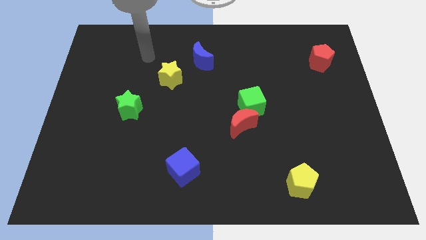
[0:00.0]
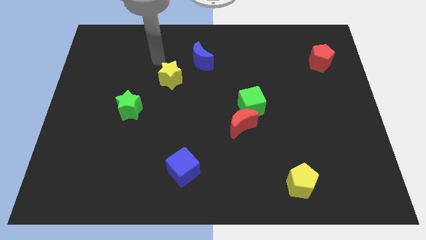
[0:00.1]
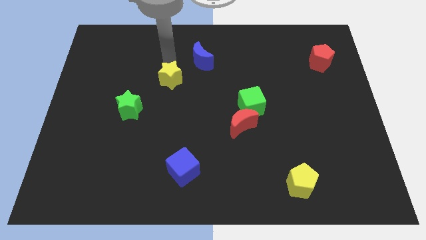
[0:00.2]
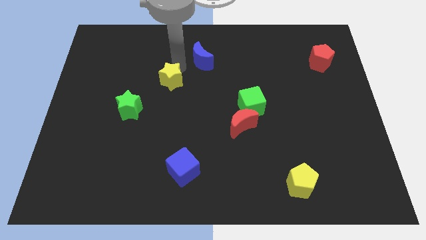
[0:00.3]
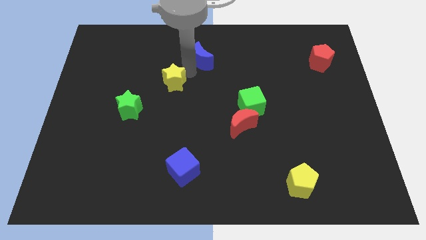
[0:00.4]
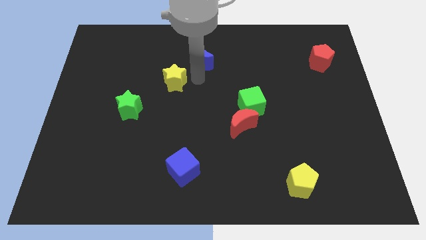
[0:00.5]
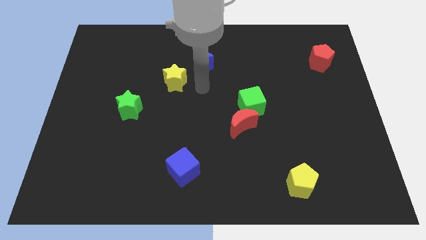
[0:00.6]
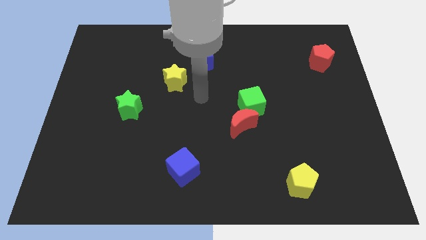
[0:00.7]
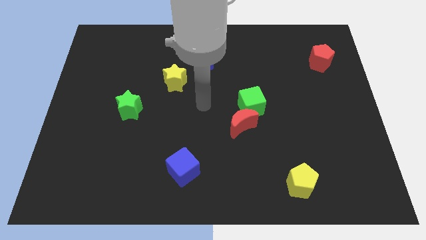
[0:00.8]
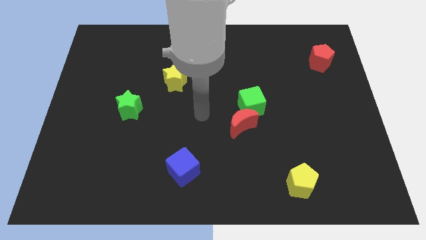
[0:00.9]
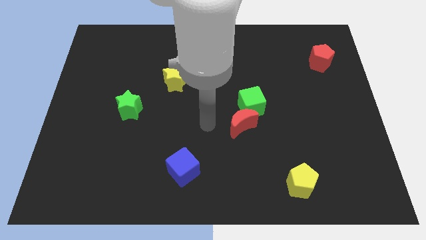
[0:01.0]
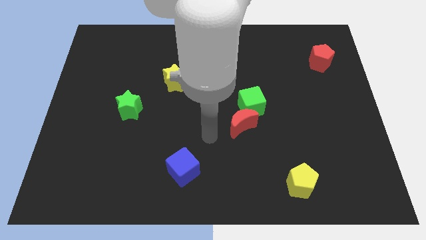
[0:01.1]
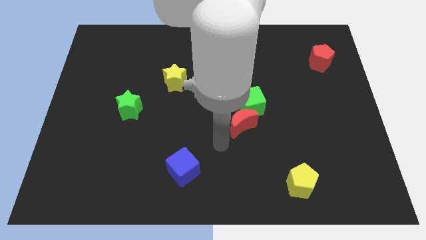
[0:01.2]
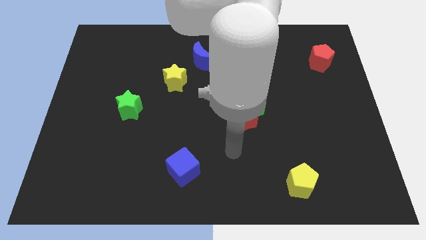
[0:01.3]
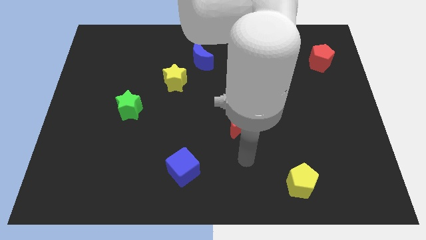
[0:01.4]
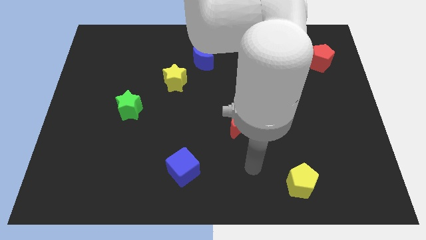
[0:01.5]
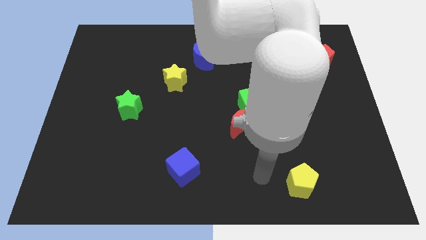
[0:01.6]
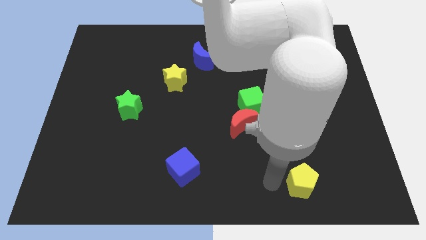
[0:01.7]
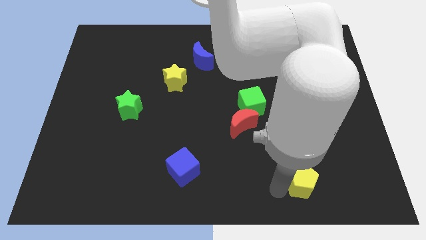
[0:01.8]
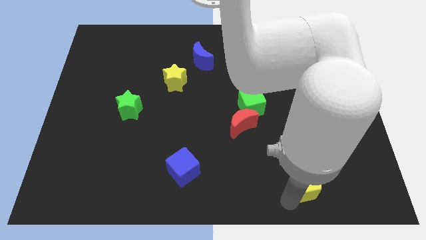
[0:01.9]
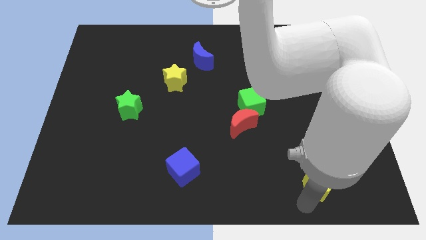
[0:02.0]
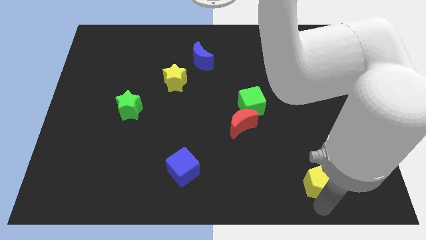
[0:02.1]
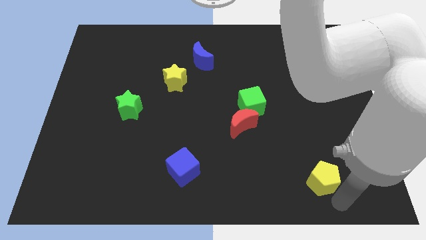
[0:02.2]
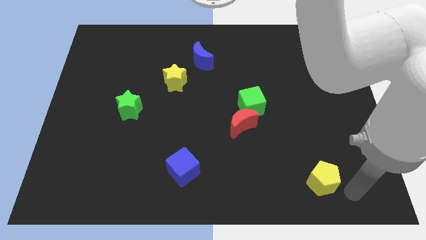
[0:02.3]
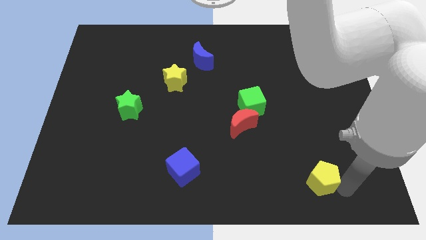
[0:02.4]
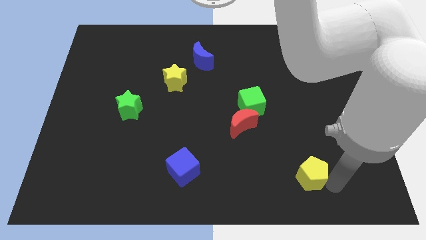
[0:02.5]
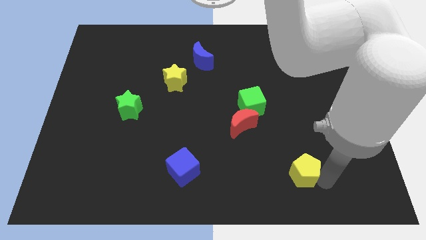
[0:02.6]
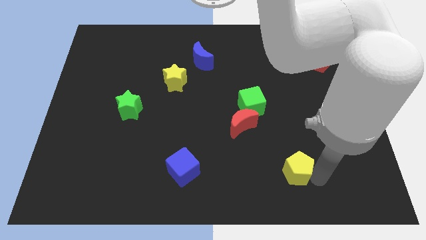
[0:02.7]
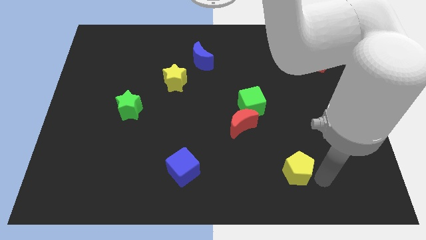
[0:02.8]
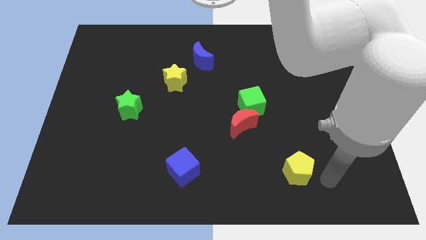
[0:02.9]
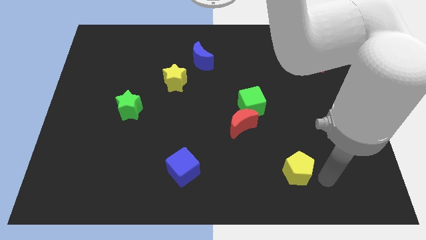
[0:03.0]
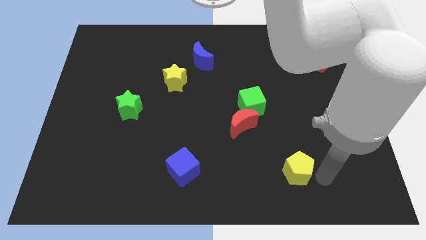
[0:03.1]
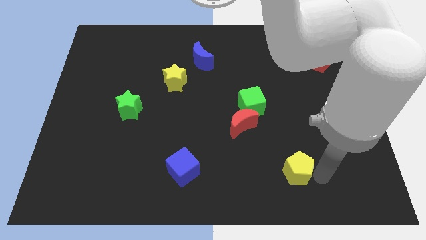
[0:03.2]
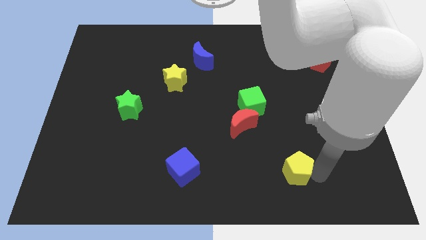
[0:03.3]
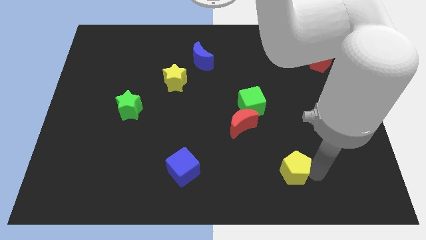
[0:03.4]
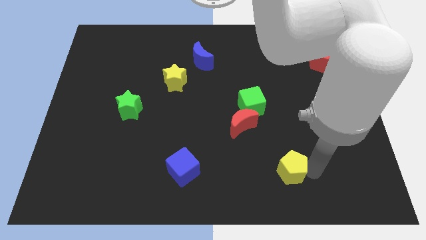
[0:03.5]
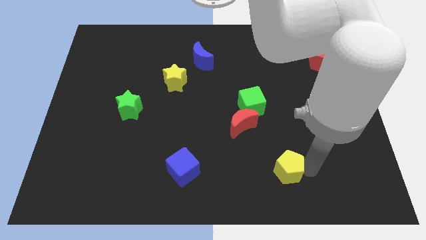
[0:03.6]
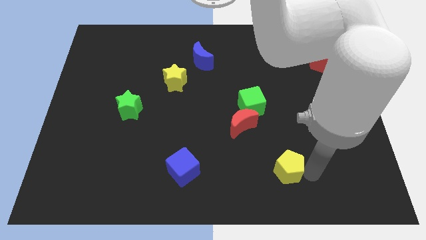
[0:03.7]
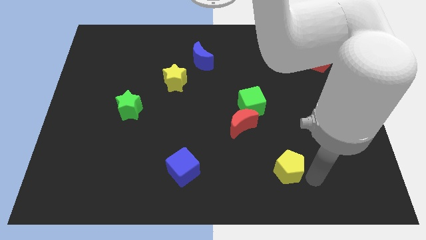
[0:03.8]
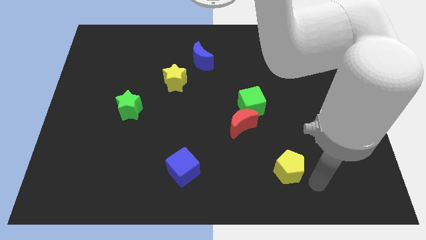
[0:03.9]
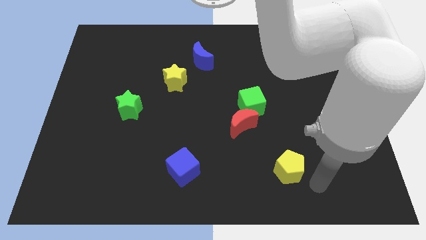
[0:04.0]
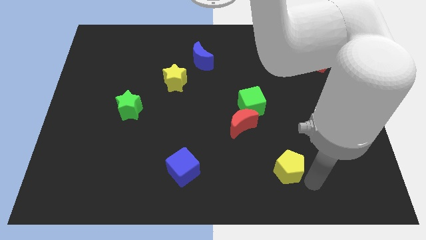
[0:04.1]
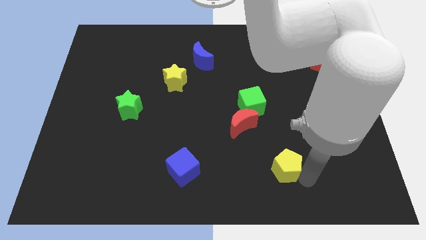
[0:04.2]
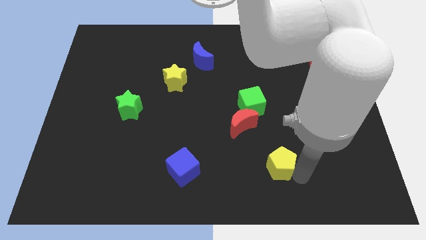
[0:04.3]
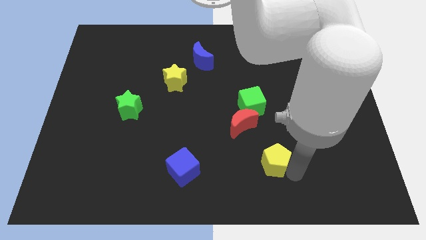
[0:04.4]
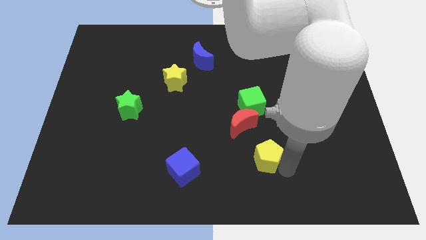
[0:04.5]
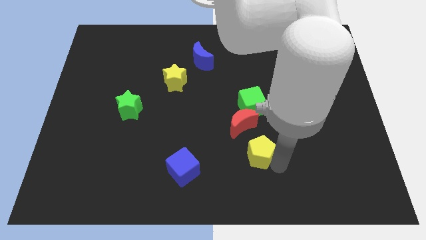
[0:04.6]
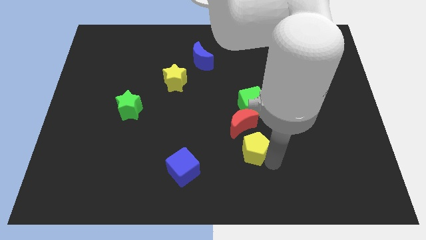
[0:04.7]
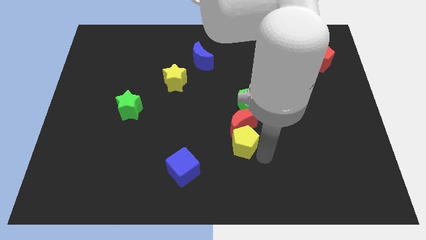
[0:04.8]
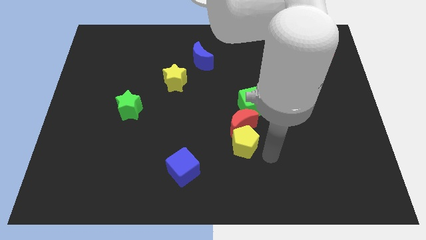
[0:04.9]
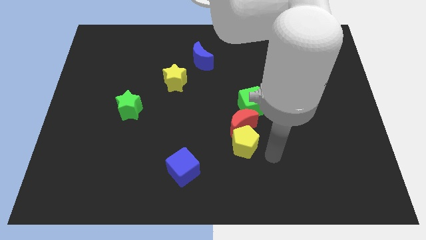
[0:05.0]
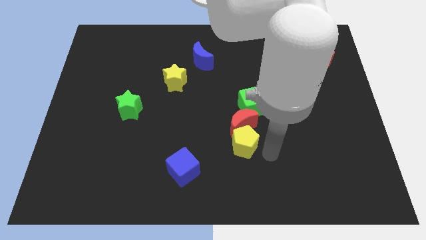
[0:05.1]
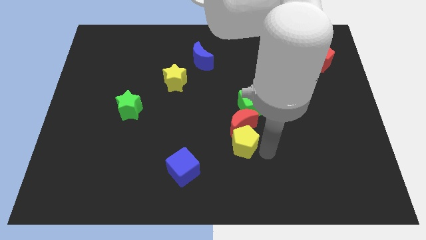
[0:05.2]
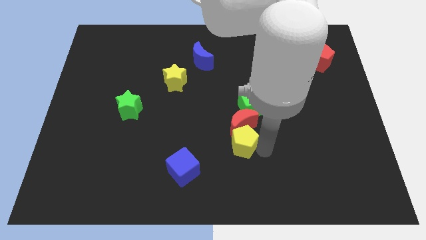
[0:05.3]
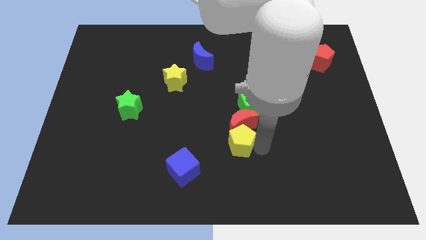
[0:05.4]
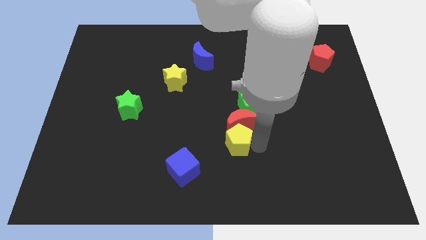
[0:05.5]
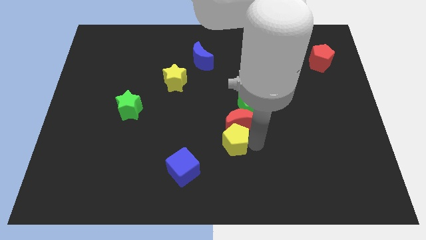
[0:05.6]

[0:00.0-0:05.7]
move the yellow pentagon to the middle

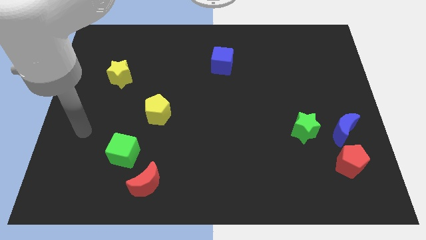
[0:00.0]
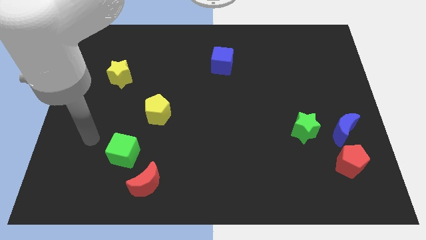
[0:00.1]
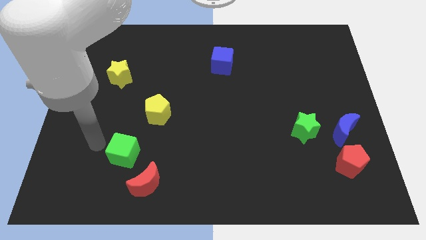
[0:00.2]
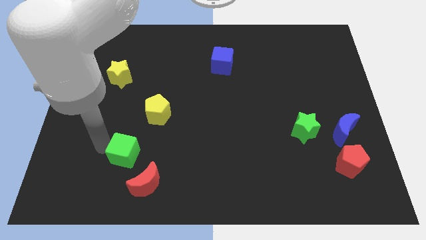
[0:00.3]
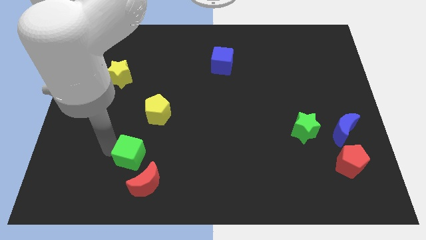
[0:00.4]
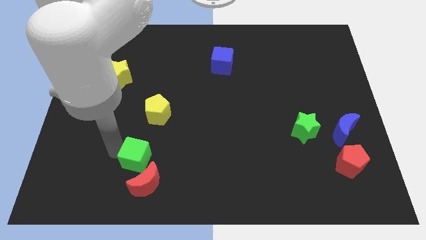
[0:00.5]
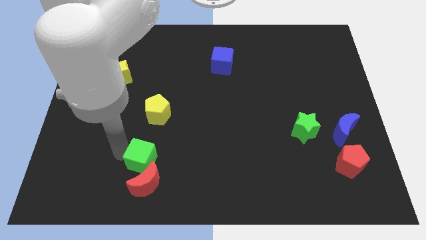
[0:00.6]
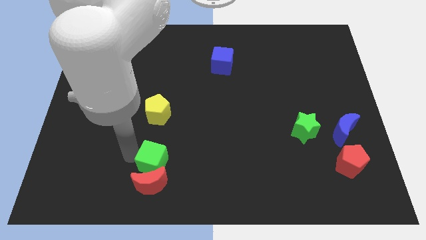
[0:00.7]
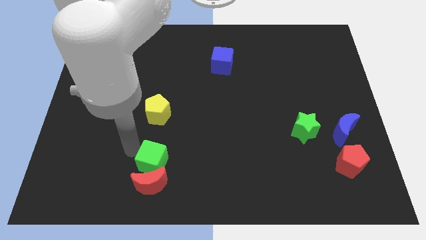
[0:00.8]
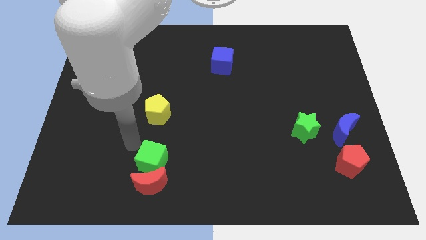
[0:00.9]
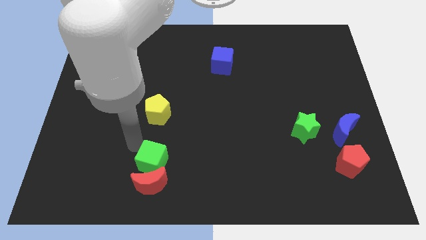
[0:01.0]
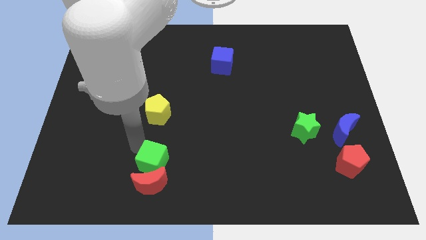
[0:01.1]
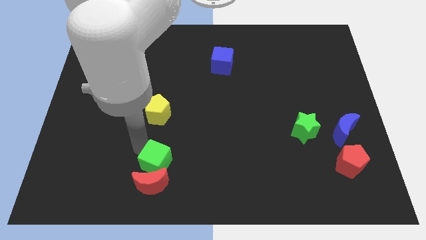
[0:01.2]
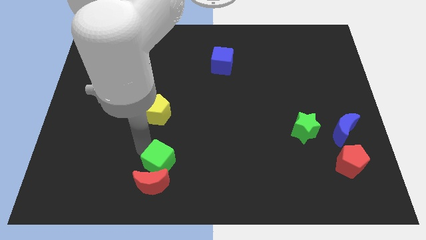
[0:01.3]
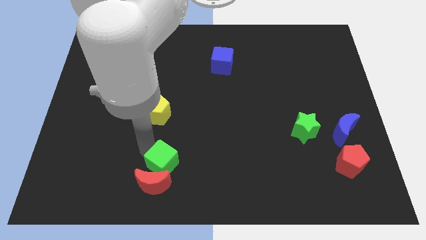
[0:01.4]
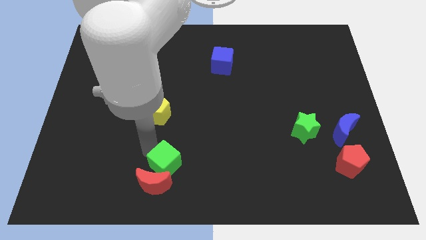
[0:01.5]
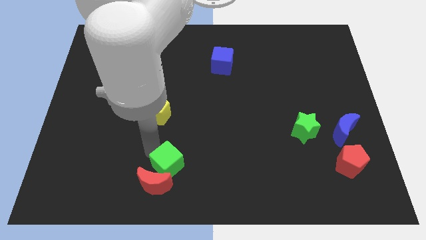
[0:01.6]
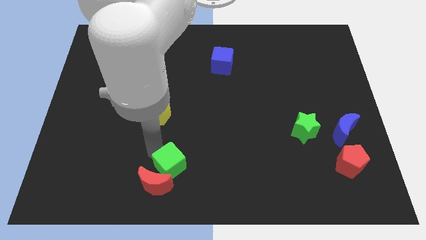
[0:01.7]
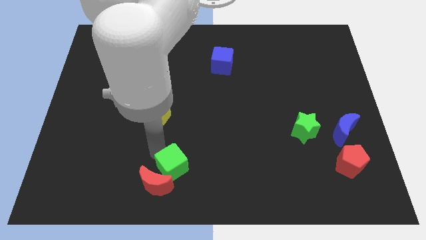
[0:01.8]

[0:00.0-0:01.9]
slide the green cube to the bottom side
